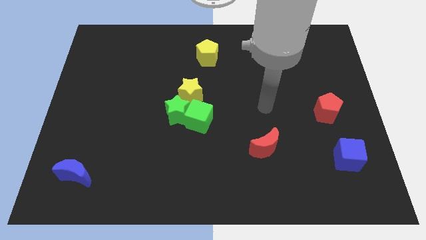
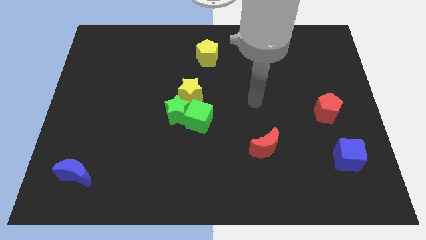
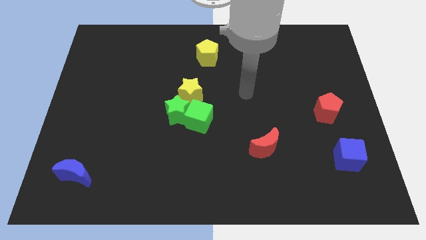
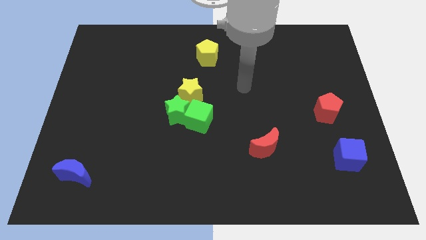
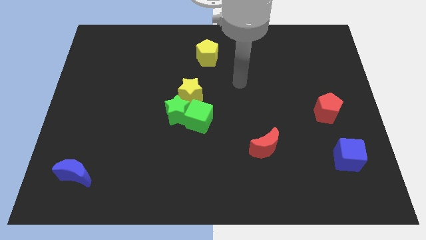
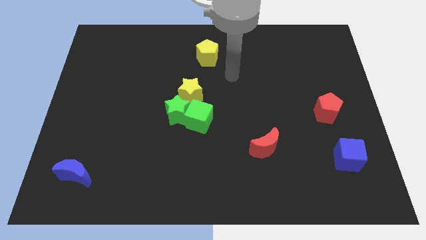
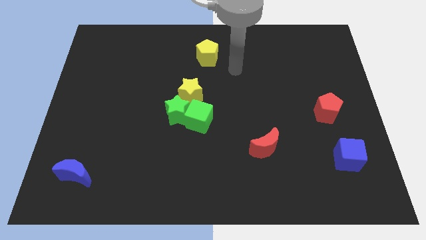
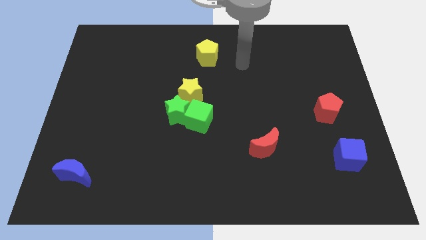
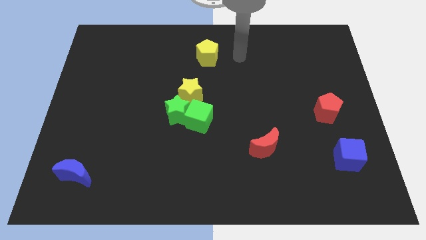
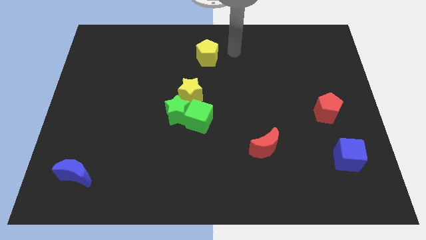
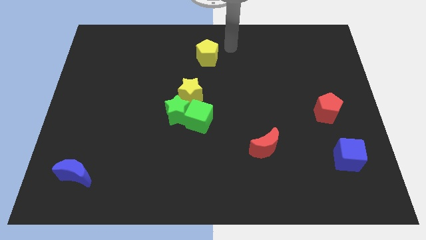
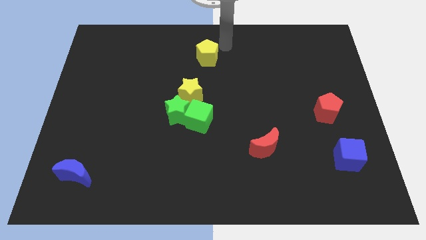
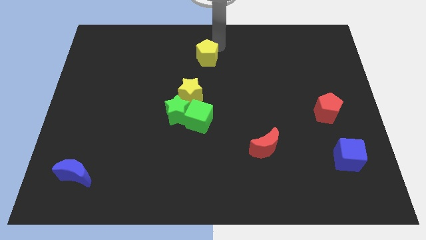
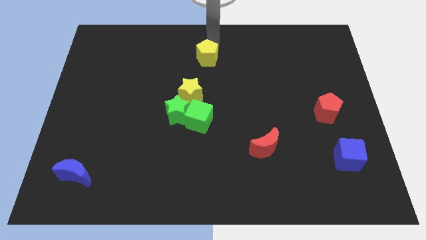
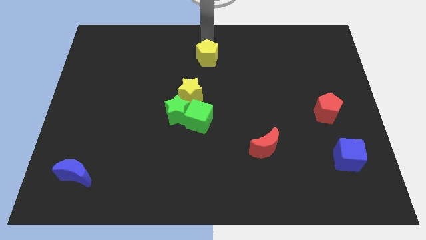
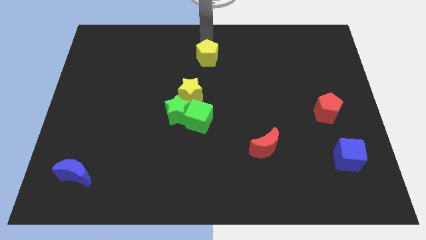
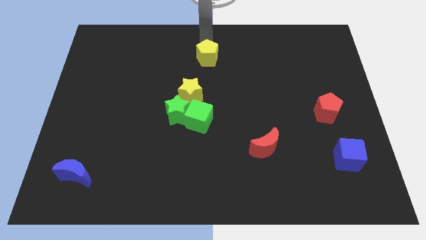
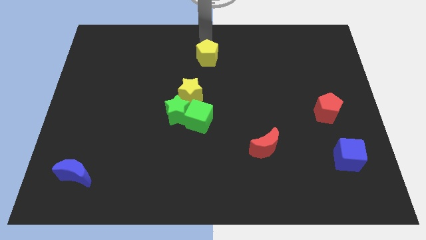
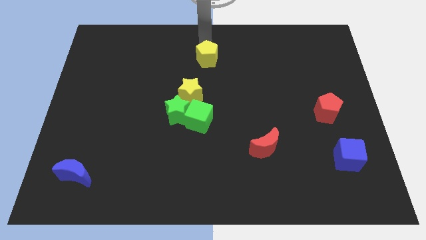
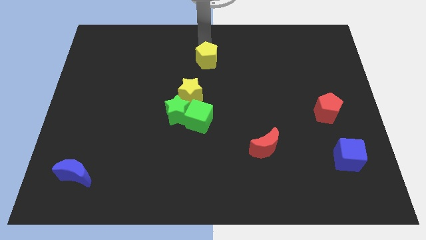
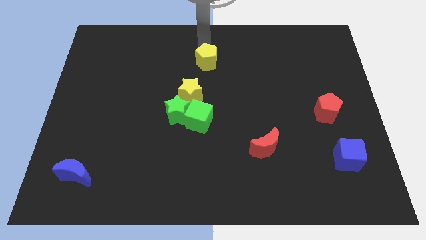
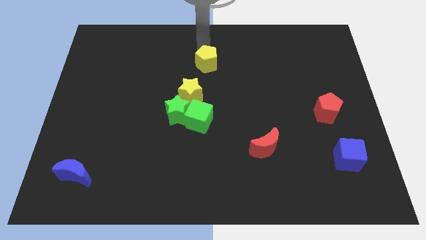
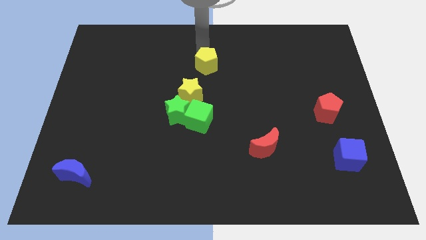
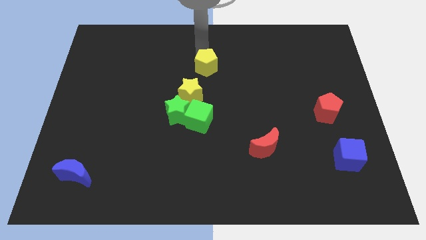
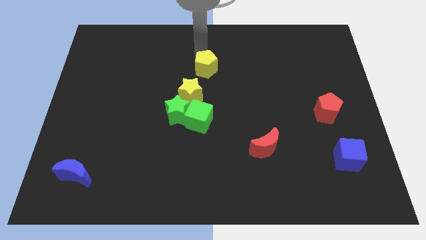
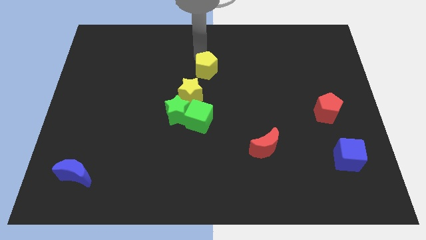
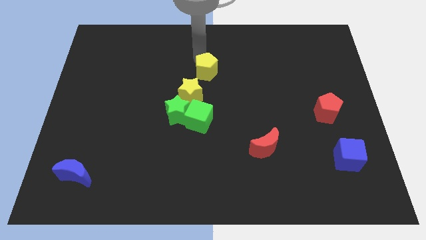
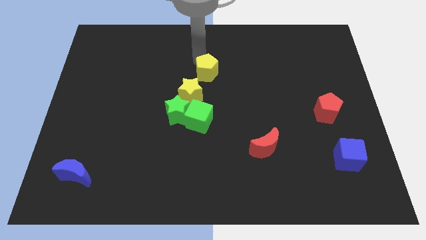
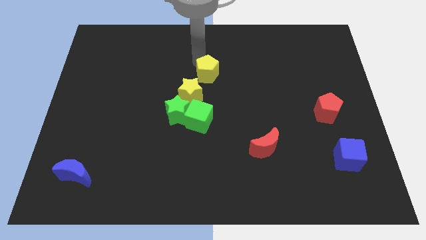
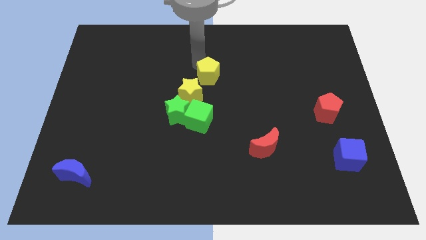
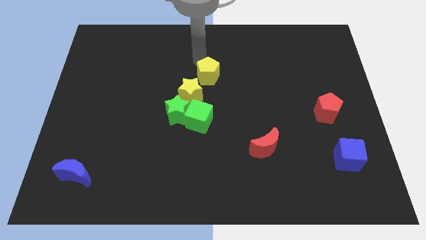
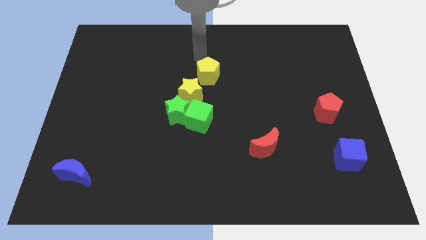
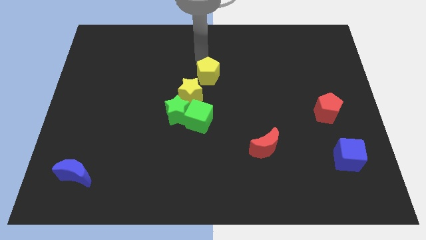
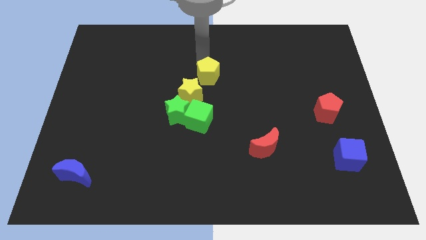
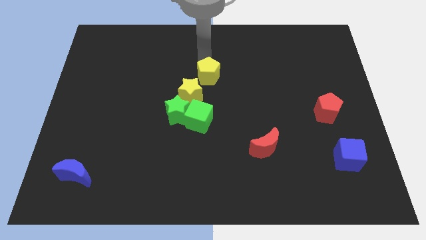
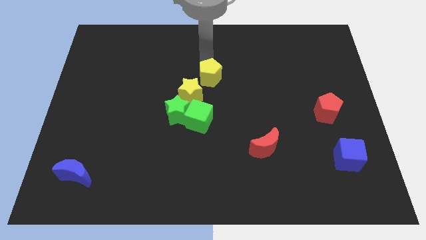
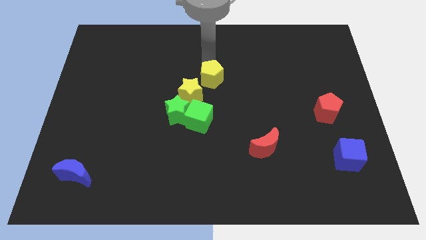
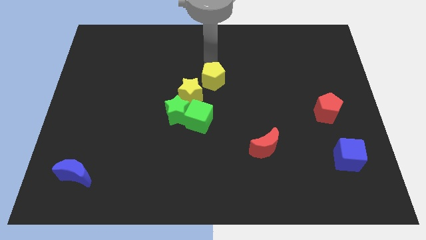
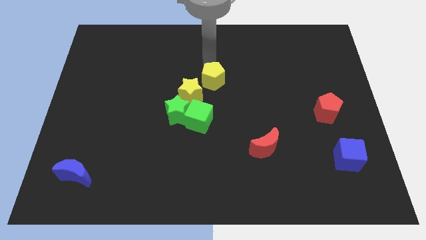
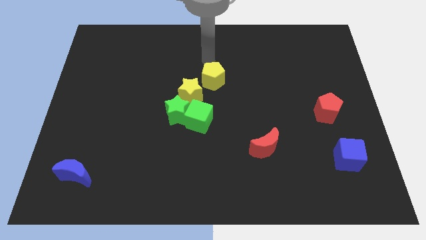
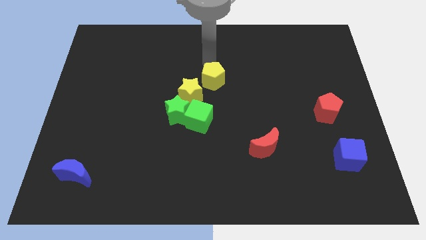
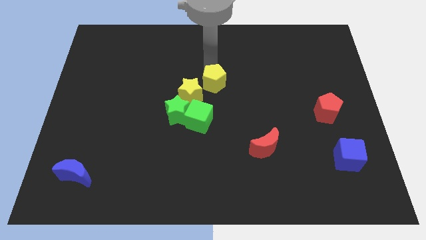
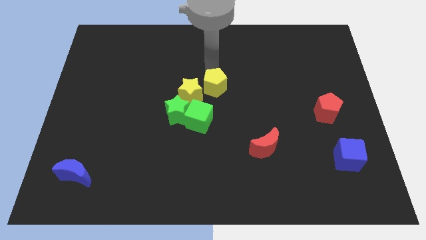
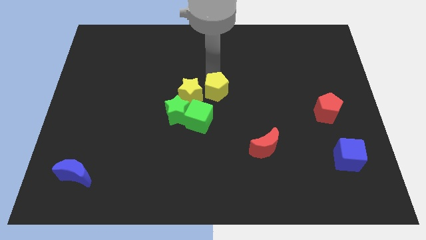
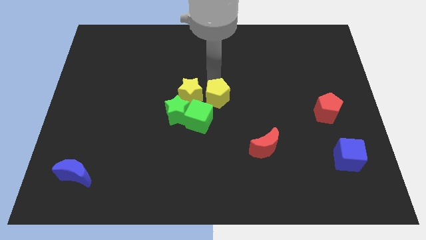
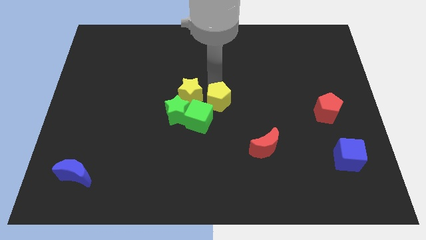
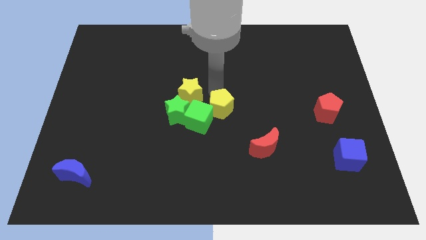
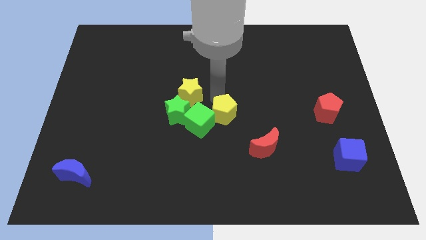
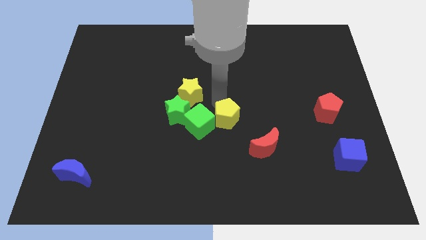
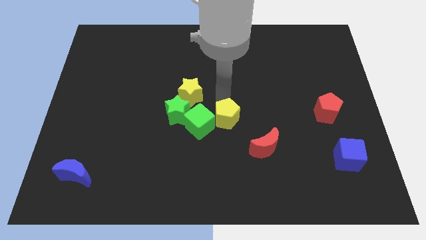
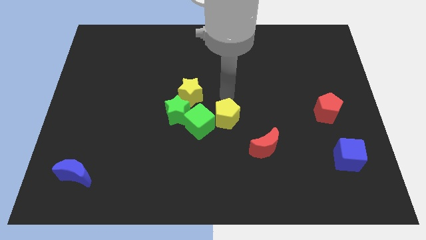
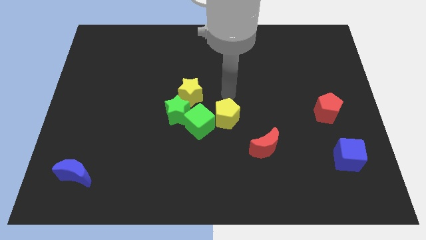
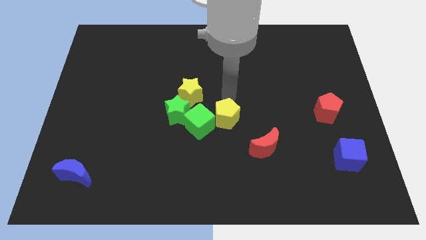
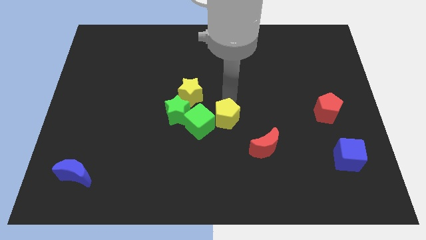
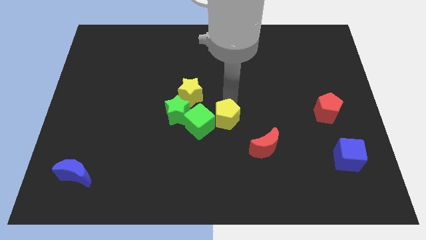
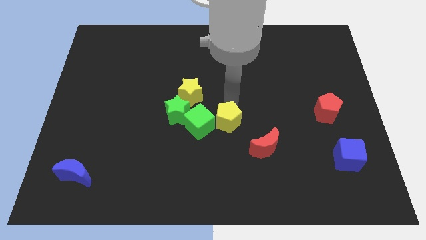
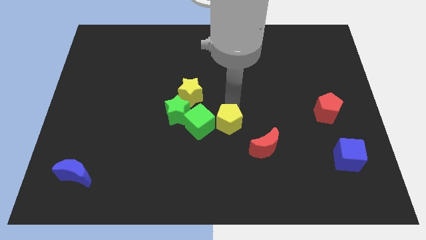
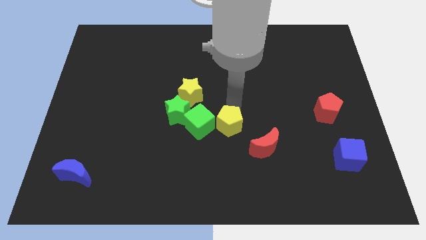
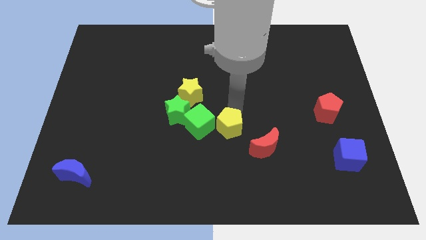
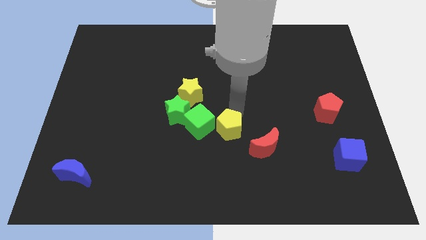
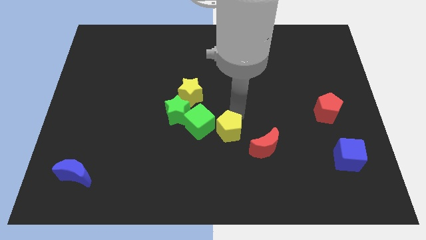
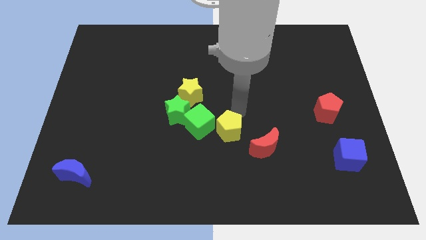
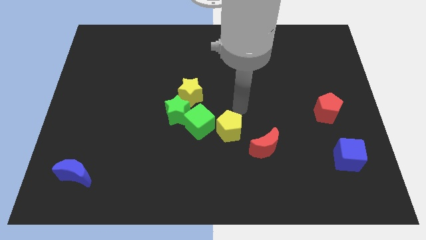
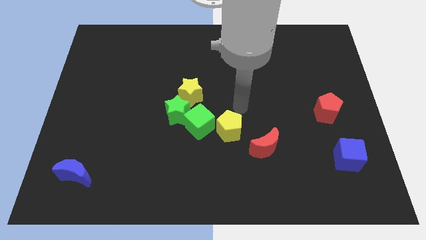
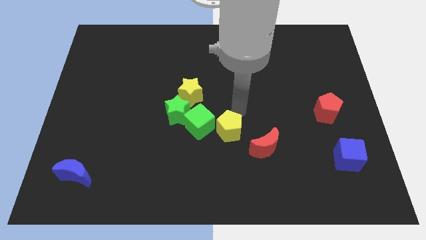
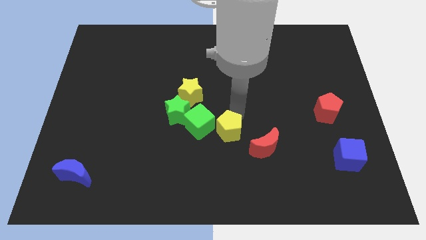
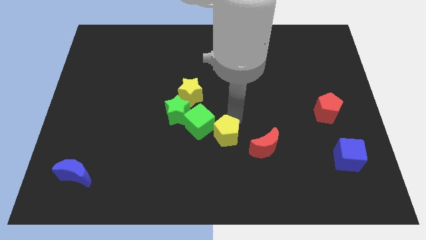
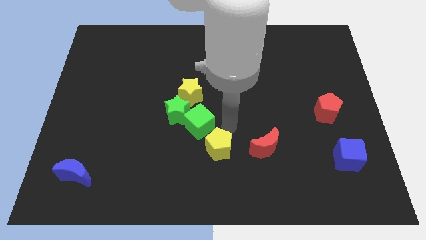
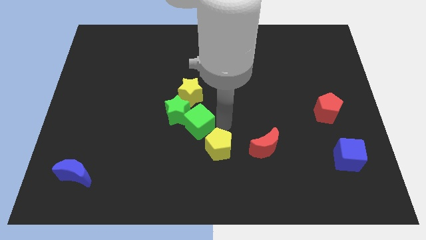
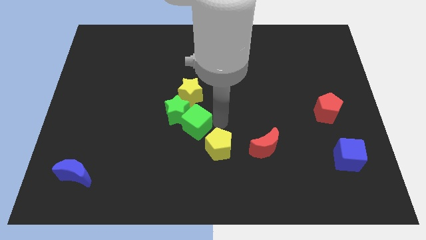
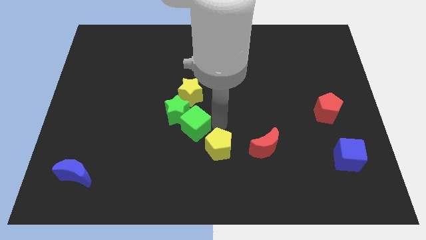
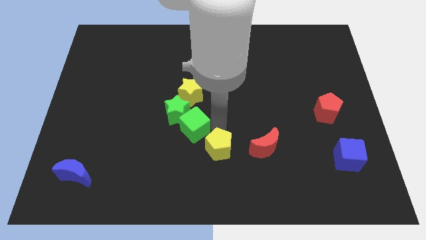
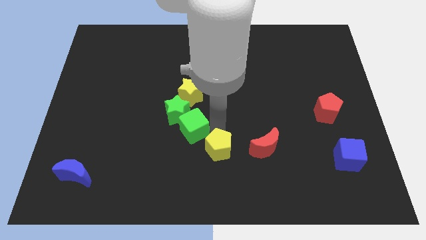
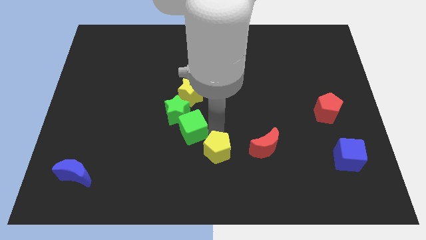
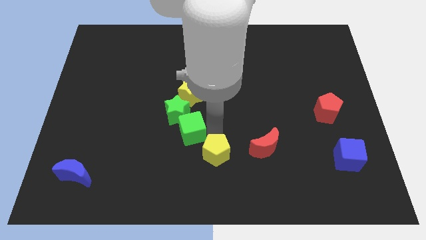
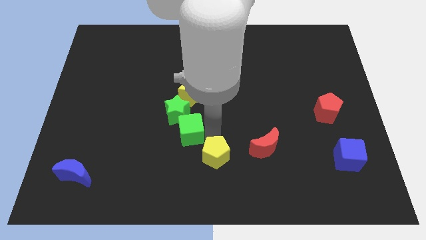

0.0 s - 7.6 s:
slide the yellow pentagon to the bottom side
